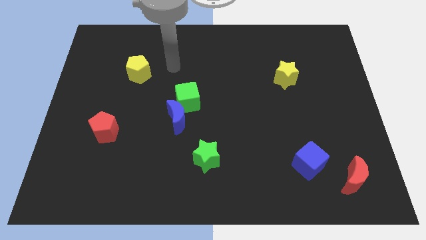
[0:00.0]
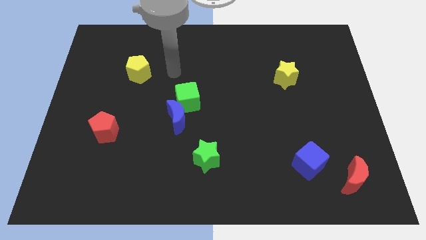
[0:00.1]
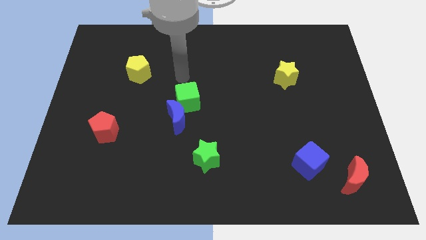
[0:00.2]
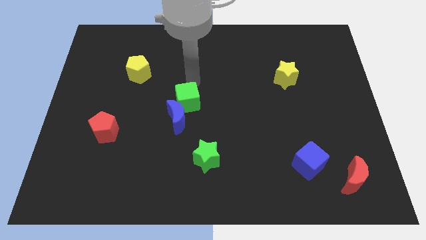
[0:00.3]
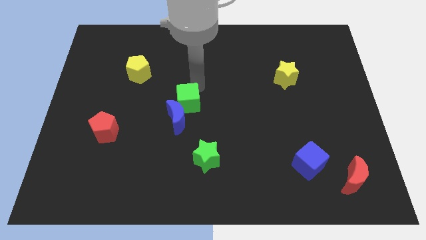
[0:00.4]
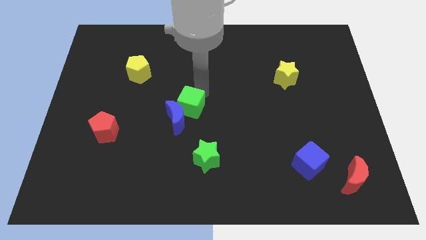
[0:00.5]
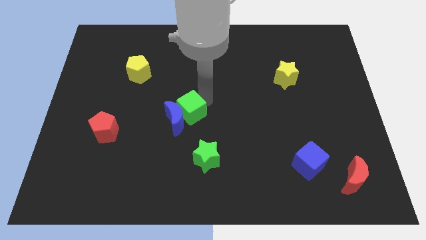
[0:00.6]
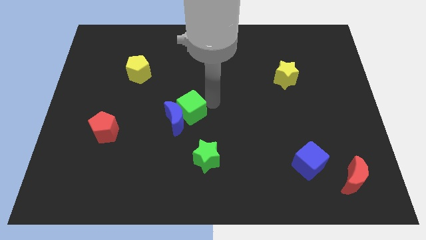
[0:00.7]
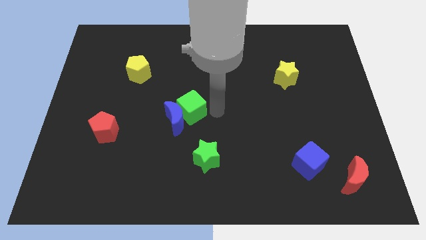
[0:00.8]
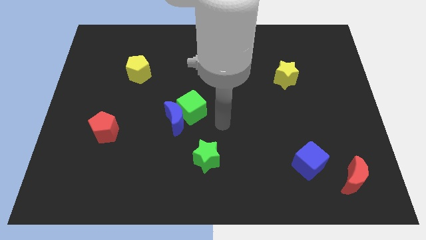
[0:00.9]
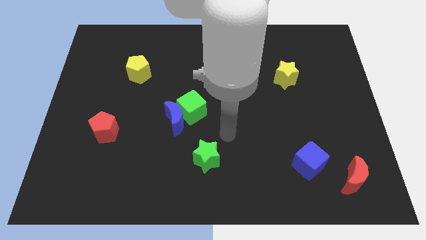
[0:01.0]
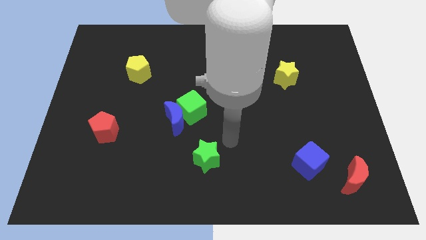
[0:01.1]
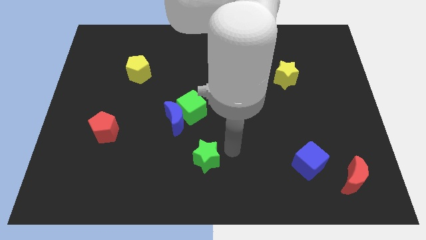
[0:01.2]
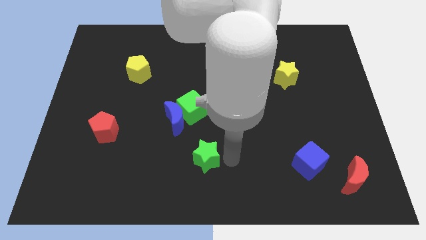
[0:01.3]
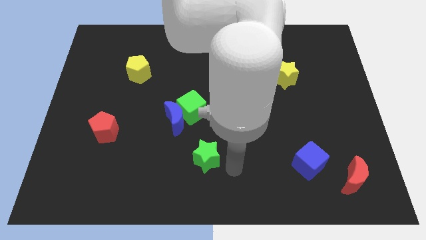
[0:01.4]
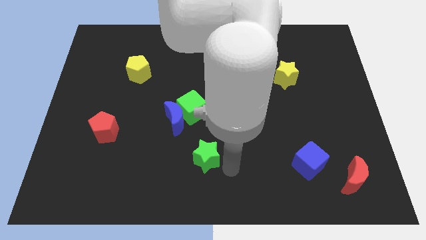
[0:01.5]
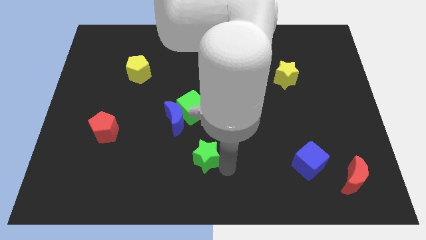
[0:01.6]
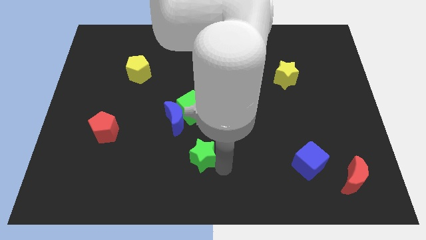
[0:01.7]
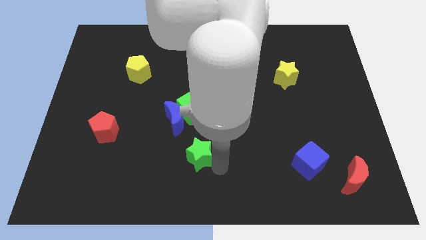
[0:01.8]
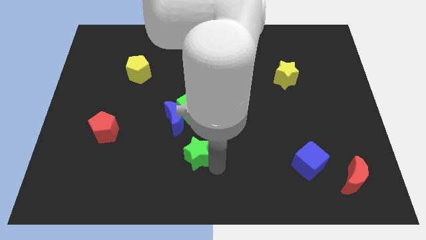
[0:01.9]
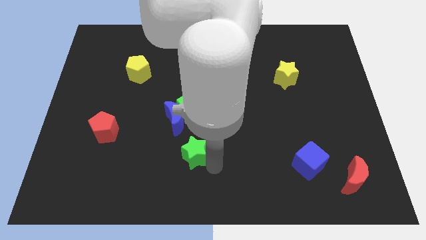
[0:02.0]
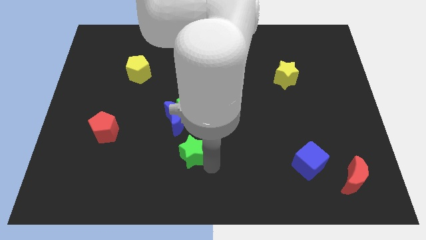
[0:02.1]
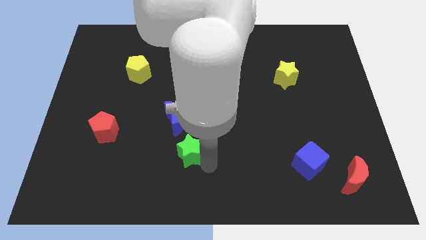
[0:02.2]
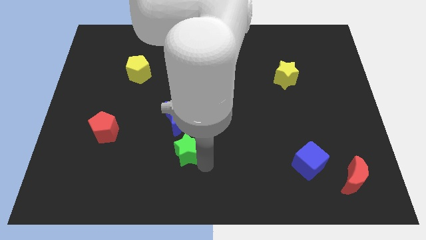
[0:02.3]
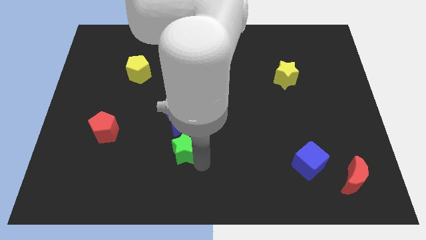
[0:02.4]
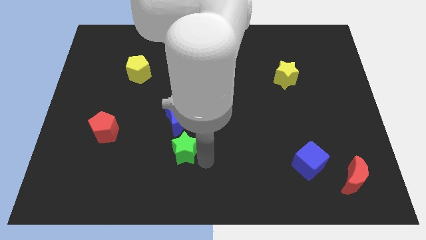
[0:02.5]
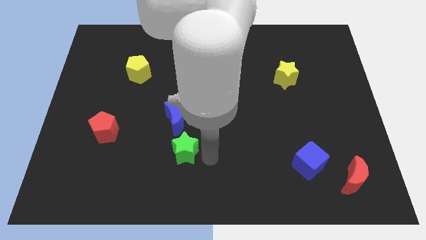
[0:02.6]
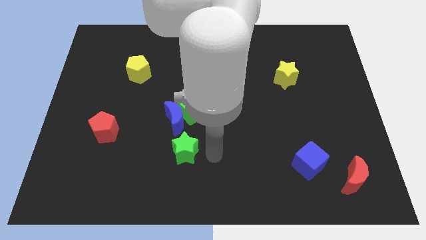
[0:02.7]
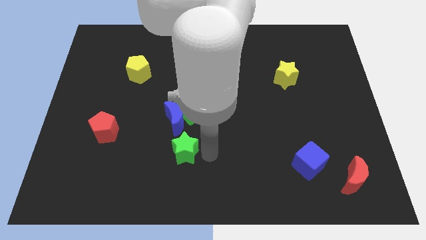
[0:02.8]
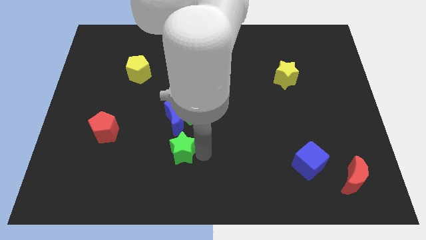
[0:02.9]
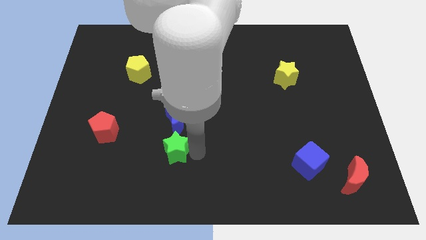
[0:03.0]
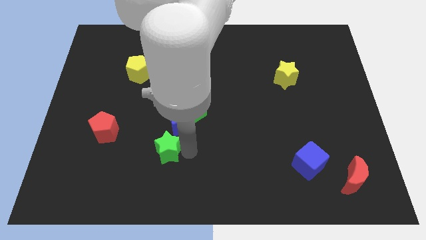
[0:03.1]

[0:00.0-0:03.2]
slightly move the green star to the left

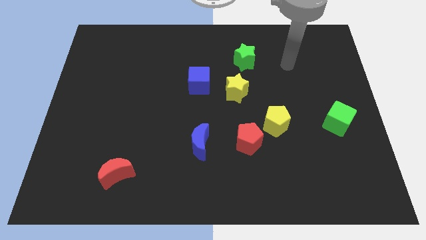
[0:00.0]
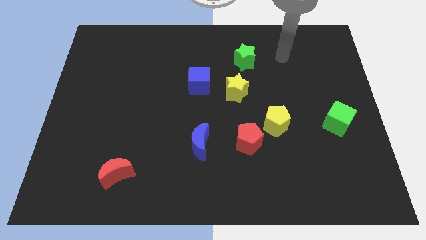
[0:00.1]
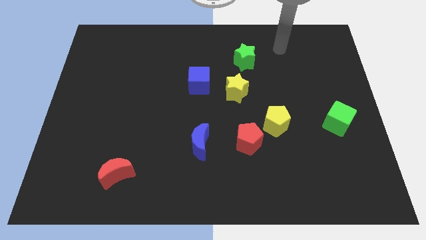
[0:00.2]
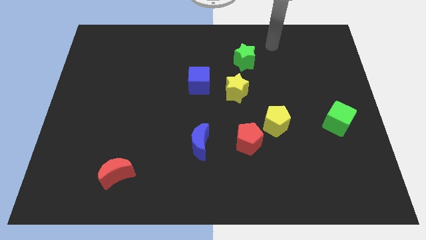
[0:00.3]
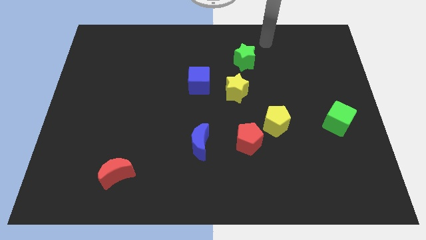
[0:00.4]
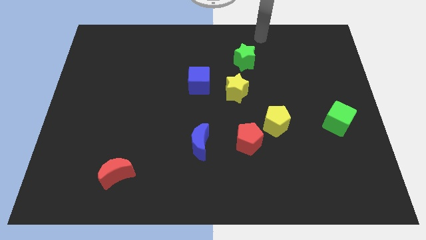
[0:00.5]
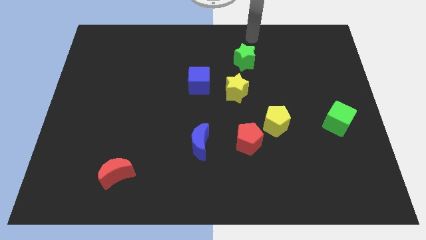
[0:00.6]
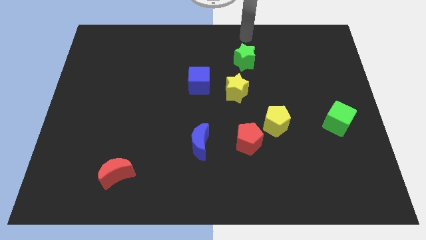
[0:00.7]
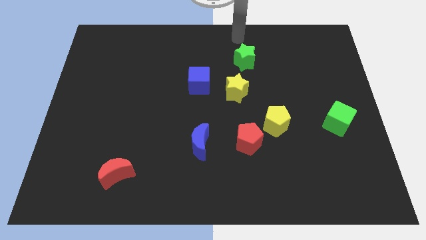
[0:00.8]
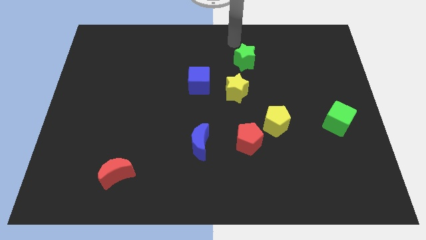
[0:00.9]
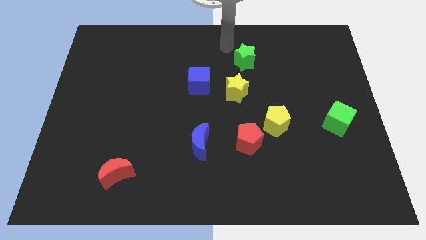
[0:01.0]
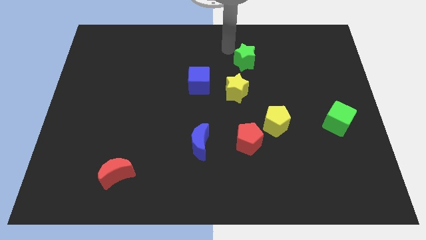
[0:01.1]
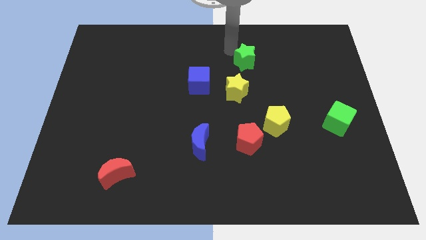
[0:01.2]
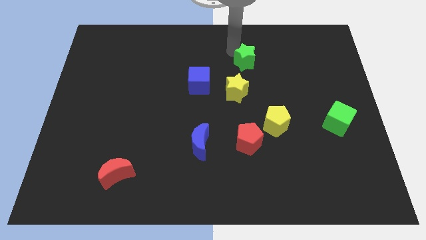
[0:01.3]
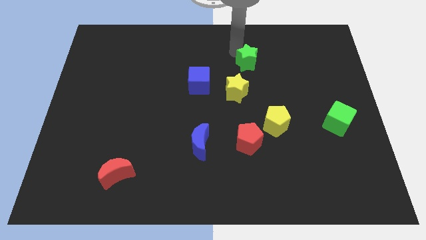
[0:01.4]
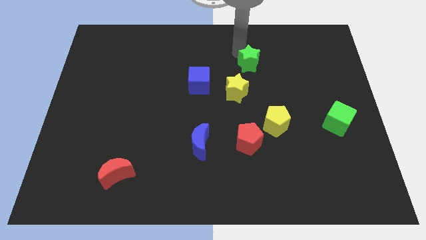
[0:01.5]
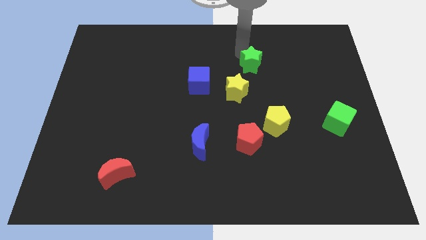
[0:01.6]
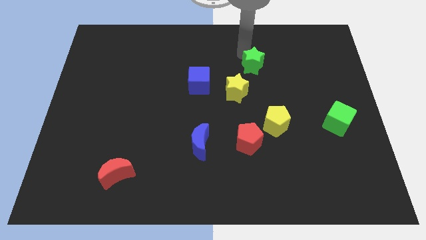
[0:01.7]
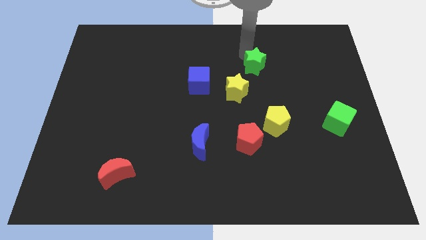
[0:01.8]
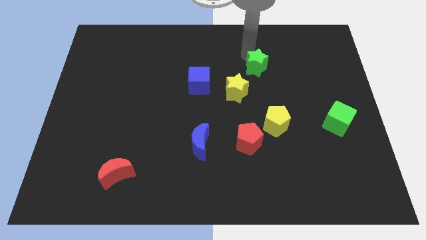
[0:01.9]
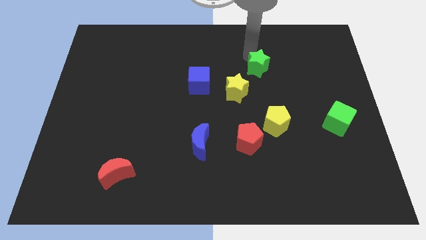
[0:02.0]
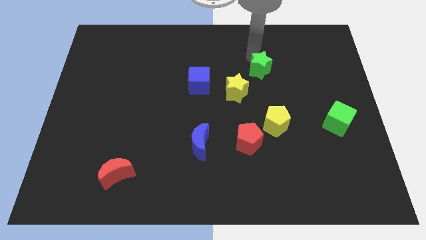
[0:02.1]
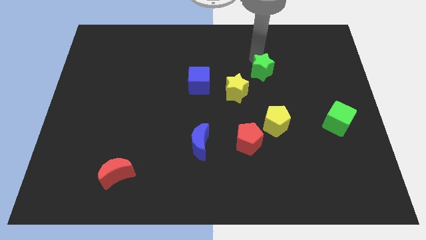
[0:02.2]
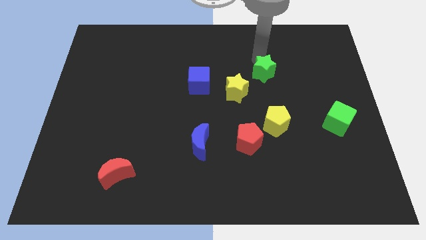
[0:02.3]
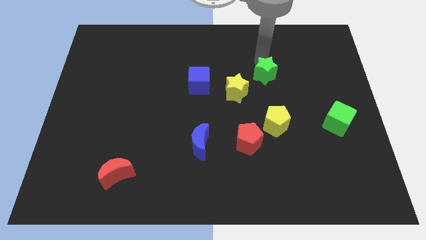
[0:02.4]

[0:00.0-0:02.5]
slightly move the green star down and to the right

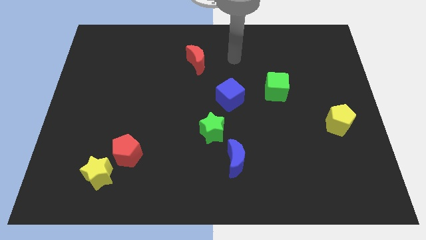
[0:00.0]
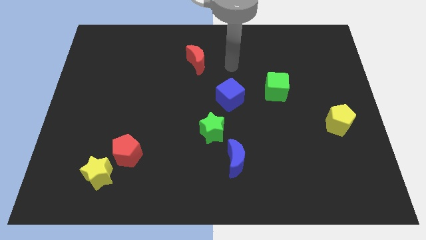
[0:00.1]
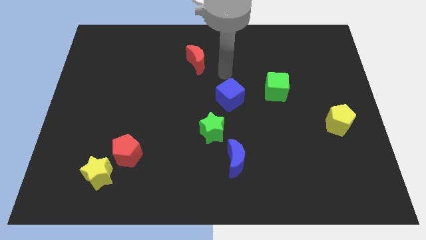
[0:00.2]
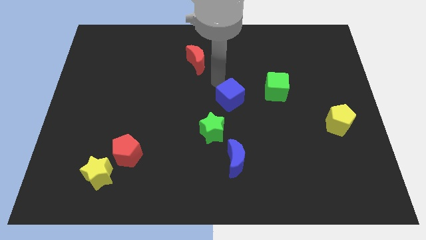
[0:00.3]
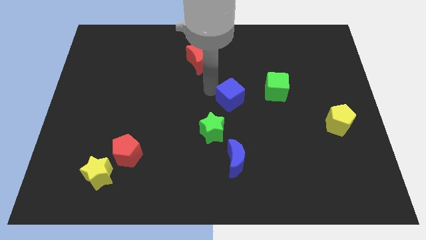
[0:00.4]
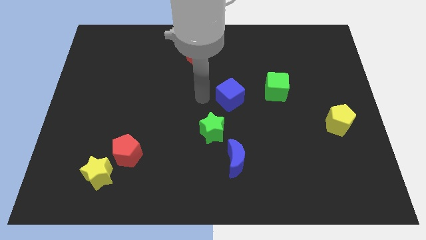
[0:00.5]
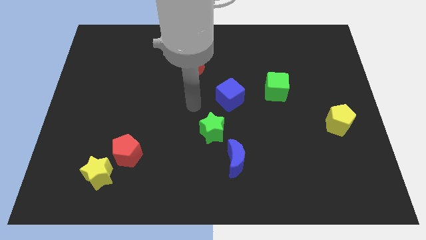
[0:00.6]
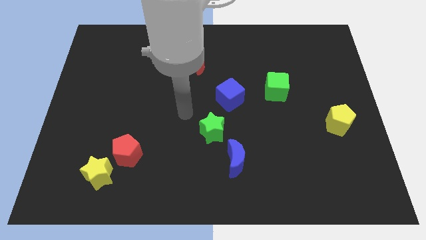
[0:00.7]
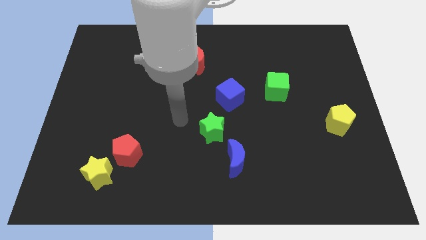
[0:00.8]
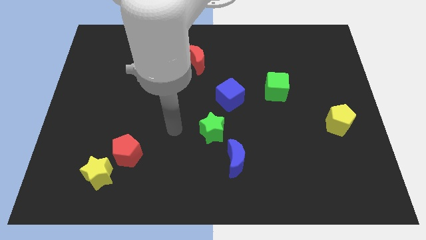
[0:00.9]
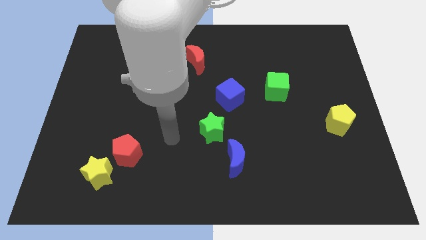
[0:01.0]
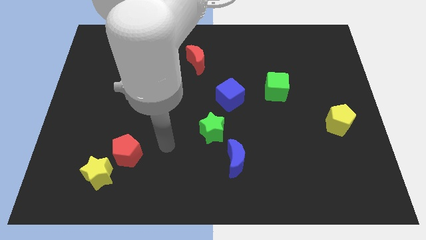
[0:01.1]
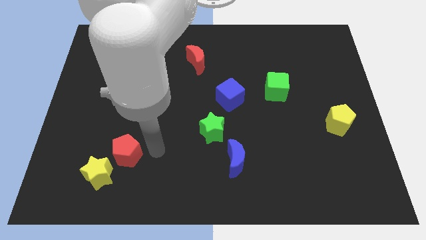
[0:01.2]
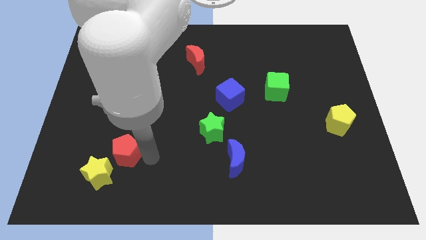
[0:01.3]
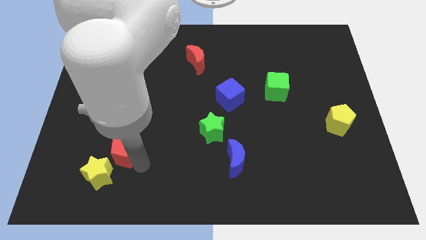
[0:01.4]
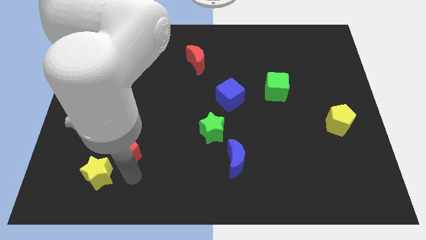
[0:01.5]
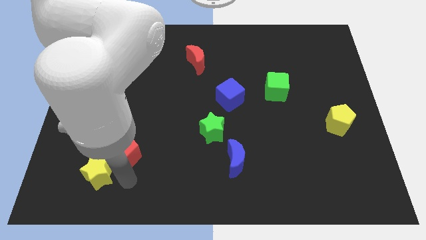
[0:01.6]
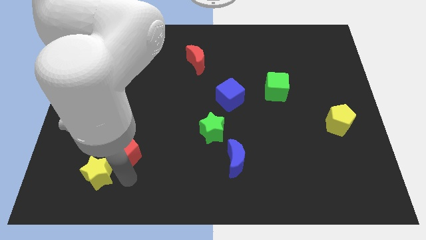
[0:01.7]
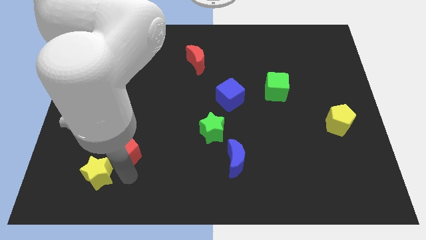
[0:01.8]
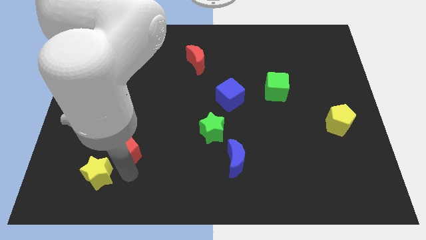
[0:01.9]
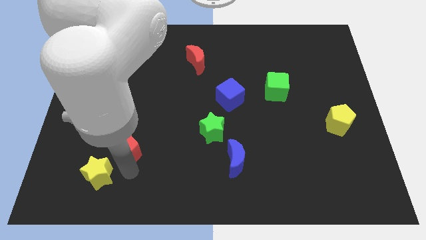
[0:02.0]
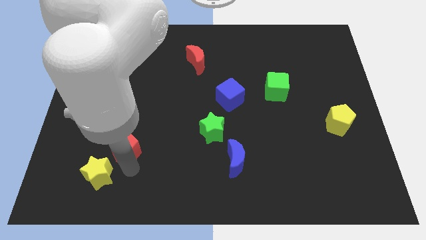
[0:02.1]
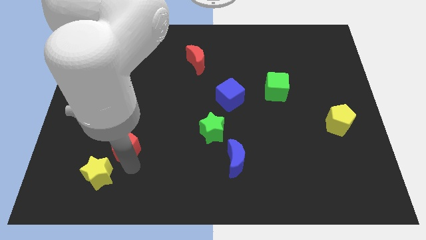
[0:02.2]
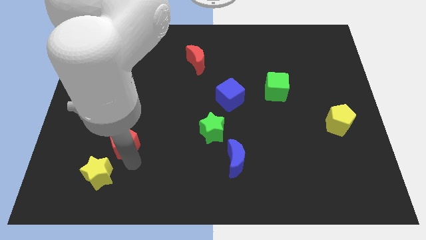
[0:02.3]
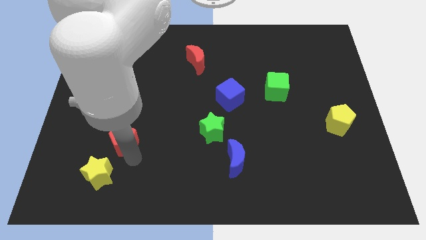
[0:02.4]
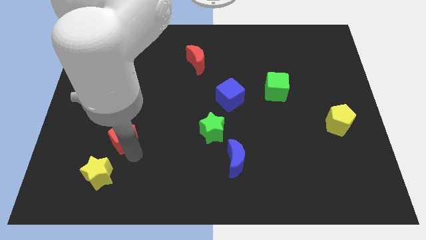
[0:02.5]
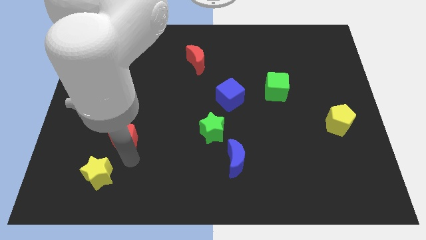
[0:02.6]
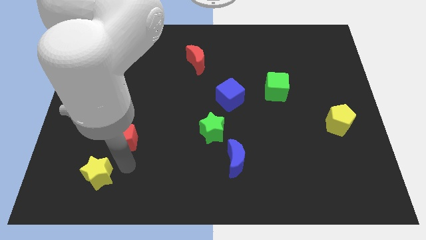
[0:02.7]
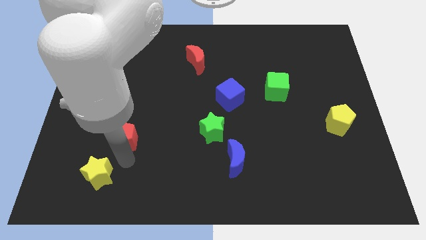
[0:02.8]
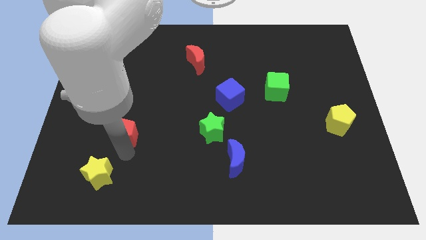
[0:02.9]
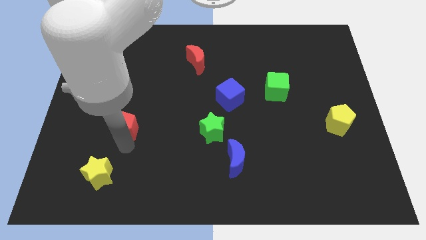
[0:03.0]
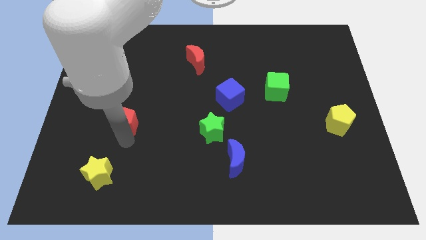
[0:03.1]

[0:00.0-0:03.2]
push the red pentagon a little bit up
